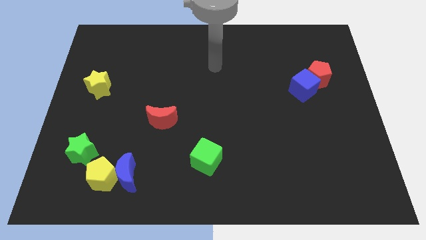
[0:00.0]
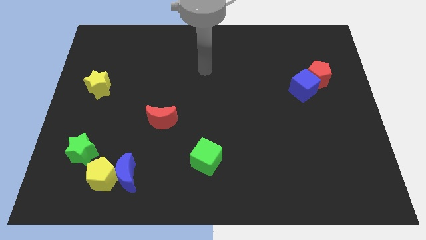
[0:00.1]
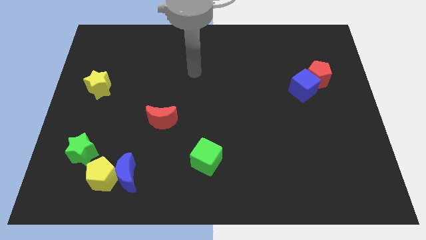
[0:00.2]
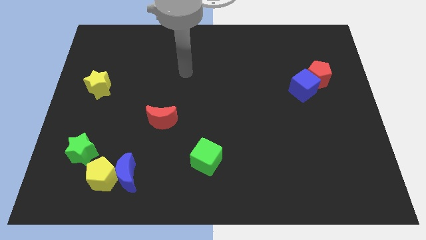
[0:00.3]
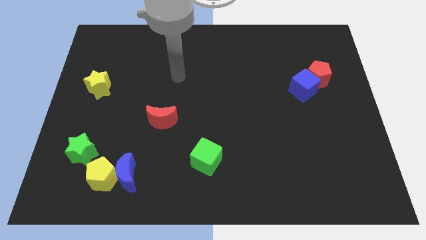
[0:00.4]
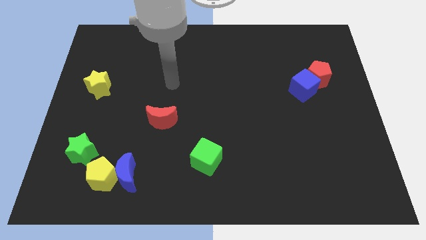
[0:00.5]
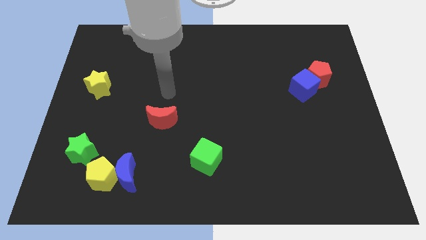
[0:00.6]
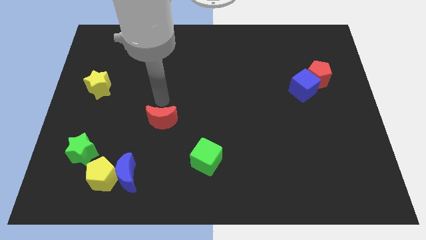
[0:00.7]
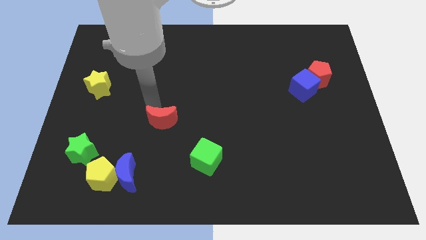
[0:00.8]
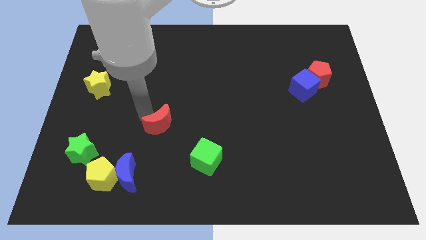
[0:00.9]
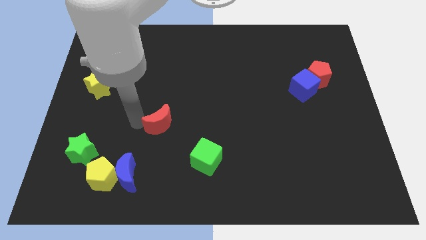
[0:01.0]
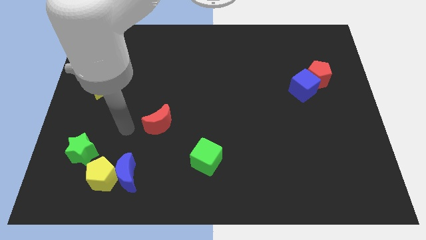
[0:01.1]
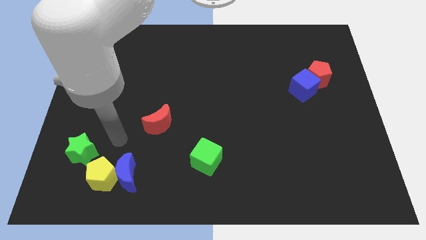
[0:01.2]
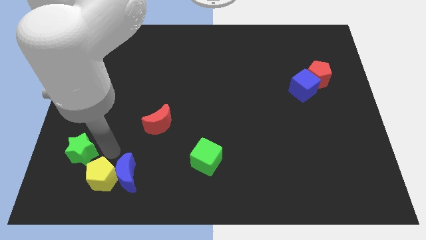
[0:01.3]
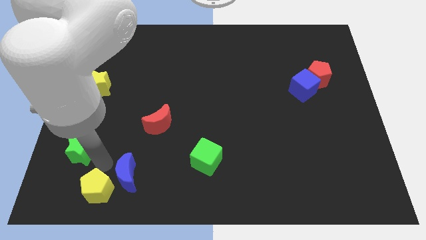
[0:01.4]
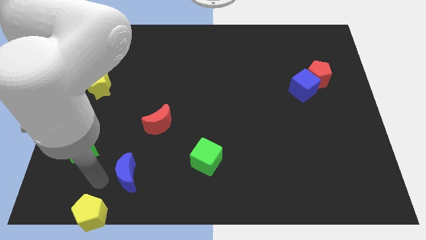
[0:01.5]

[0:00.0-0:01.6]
pull the blue moon apart from the yellow pentagon

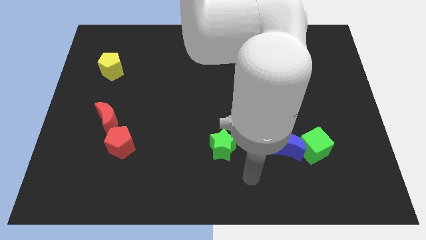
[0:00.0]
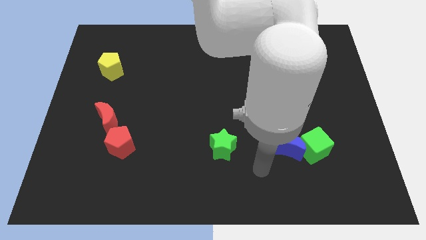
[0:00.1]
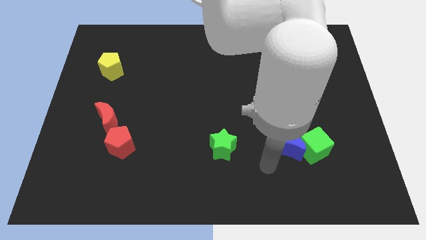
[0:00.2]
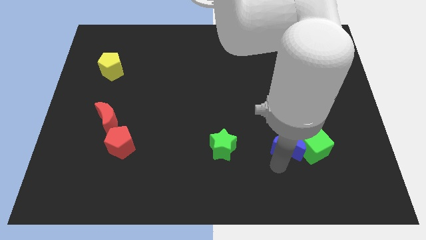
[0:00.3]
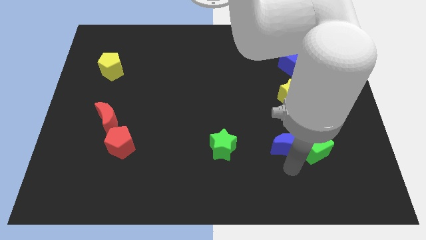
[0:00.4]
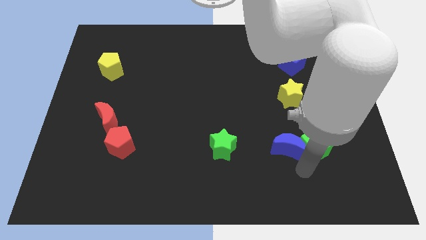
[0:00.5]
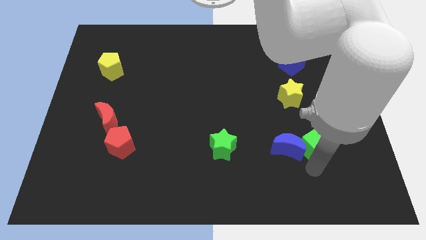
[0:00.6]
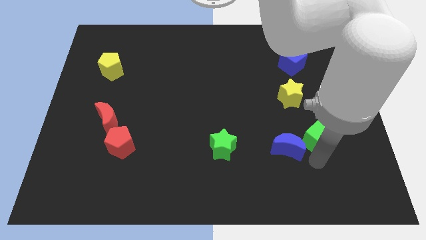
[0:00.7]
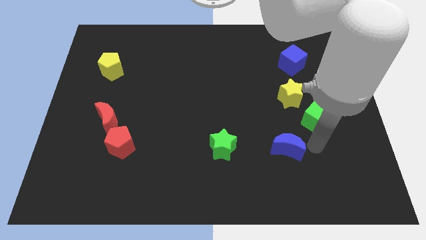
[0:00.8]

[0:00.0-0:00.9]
separate the blue moon from the green cube

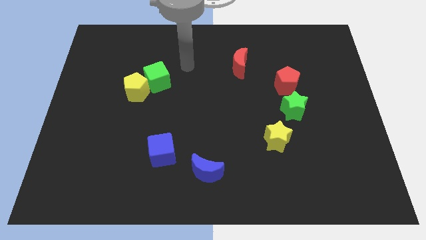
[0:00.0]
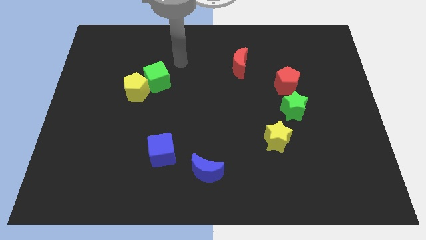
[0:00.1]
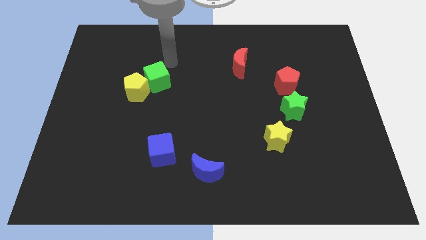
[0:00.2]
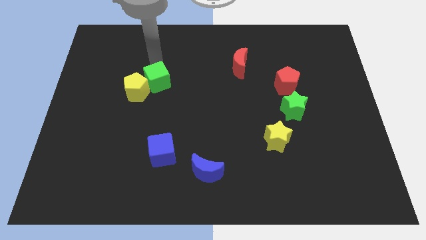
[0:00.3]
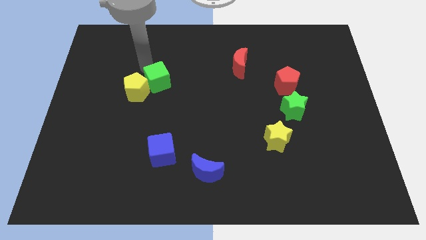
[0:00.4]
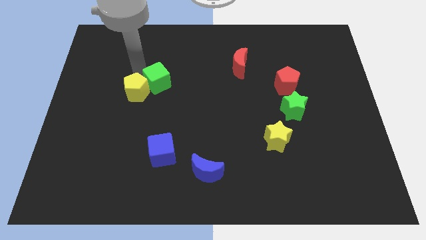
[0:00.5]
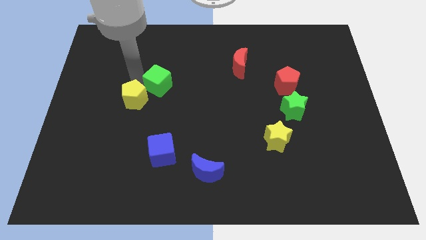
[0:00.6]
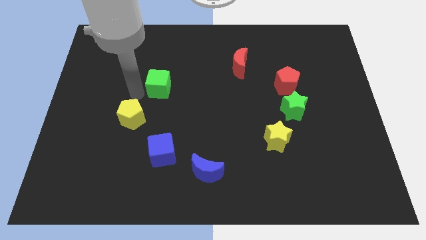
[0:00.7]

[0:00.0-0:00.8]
move the green cube away from the yellow pentagon

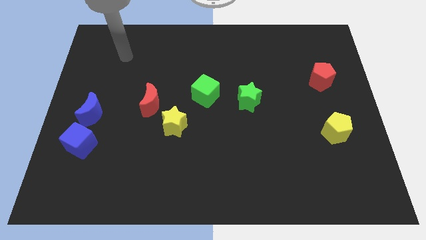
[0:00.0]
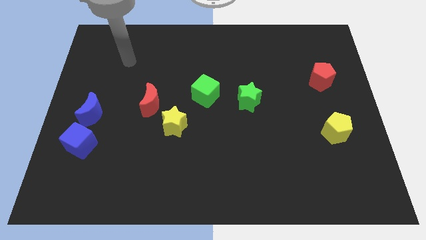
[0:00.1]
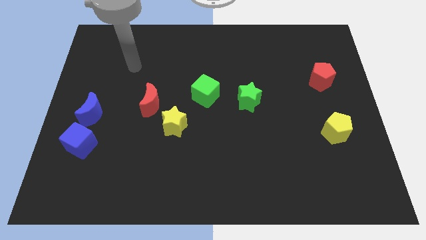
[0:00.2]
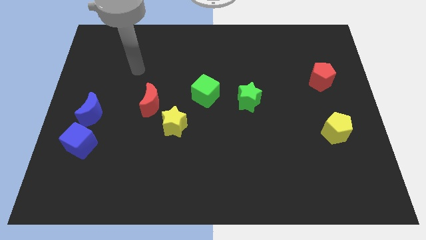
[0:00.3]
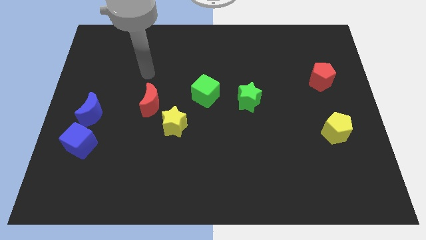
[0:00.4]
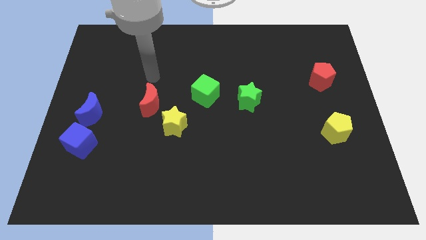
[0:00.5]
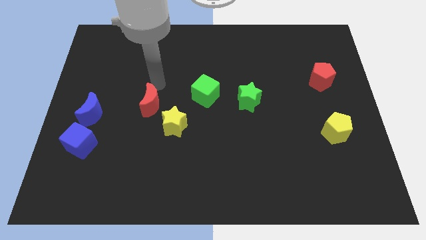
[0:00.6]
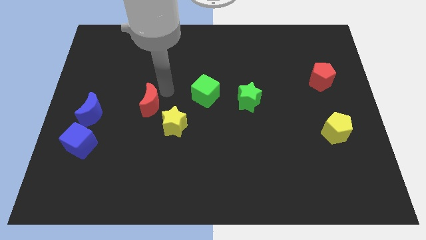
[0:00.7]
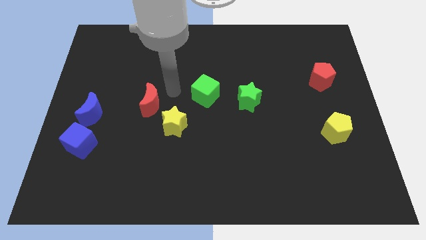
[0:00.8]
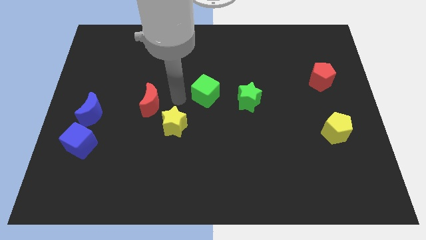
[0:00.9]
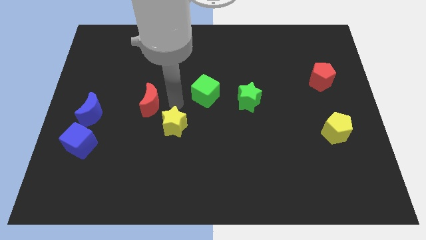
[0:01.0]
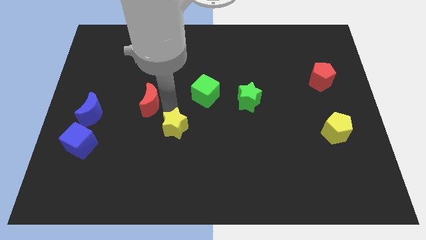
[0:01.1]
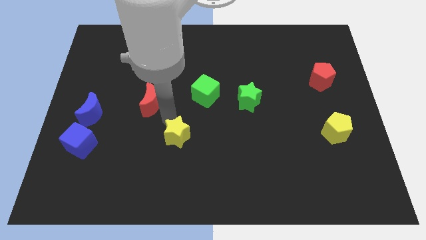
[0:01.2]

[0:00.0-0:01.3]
pull the red moon apart from the yellow star

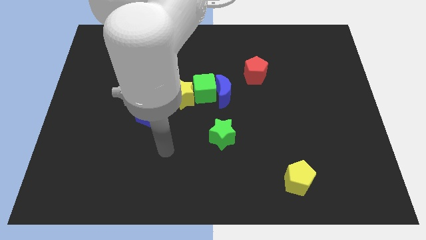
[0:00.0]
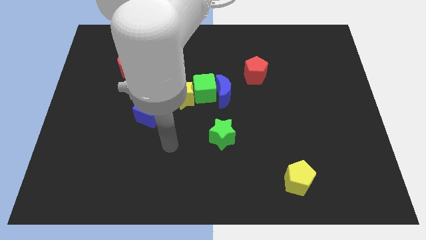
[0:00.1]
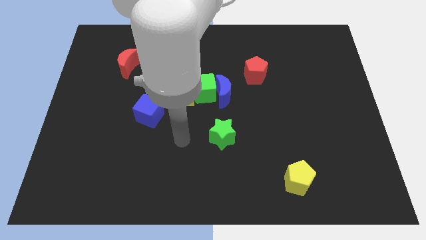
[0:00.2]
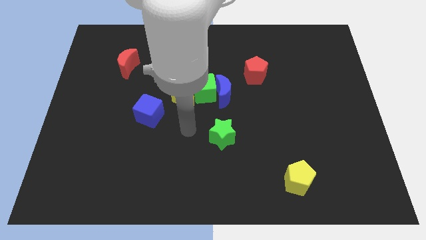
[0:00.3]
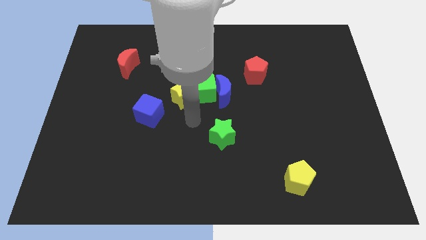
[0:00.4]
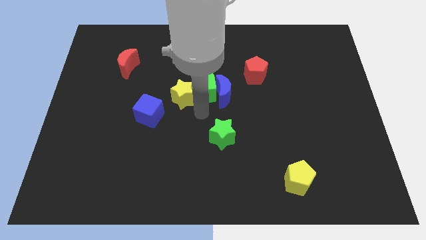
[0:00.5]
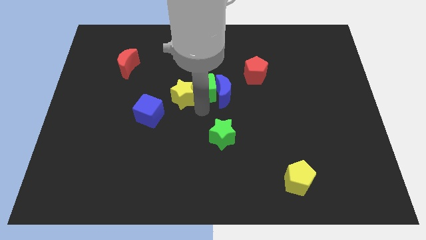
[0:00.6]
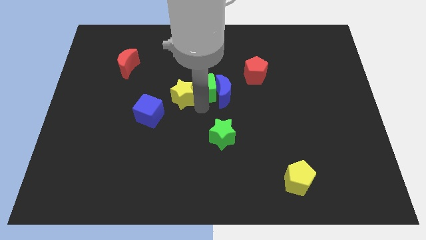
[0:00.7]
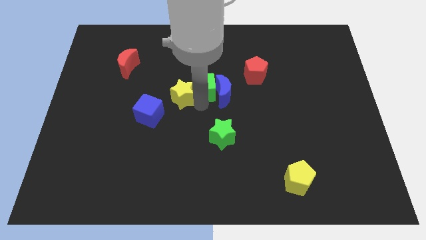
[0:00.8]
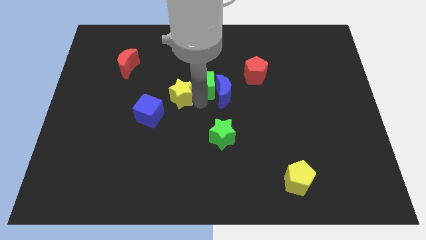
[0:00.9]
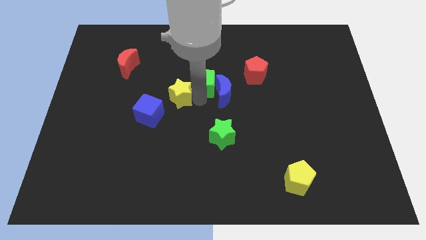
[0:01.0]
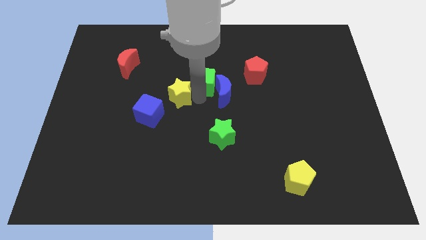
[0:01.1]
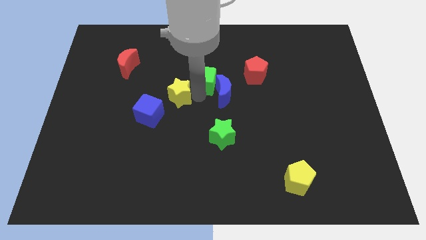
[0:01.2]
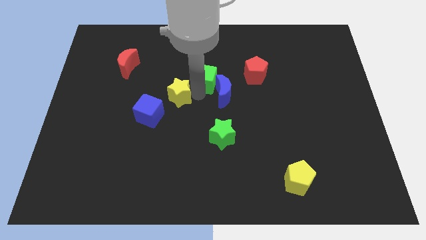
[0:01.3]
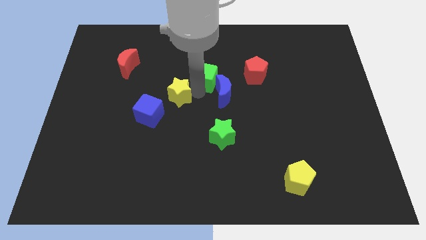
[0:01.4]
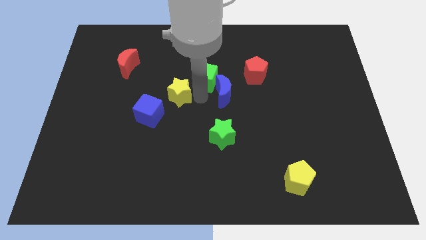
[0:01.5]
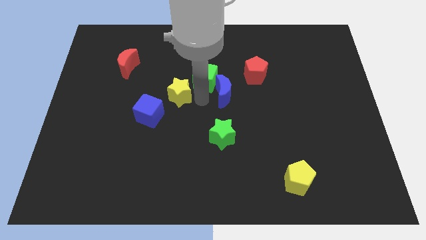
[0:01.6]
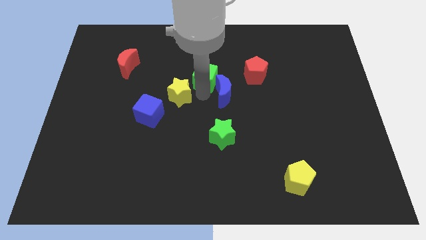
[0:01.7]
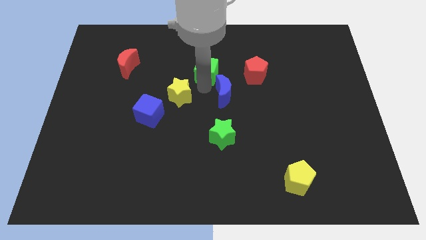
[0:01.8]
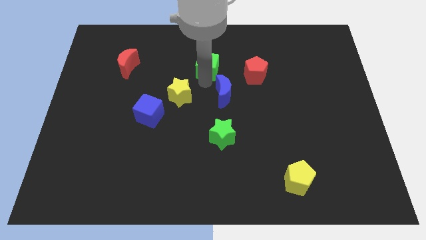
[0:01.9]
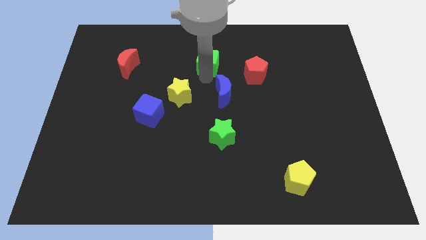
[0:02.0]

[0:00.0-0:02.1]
move the green cube away from the blue moon and yellow star

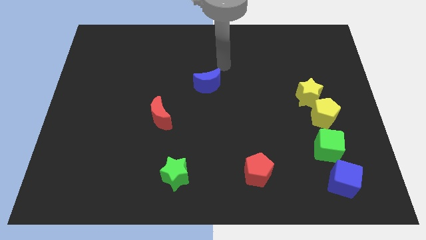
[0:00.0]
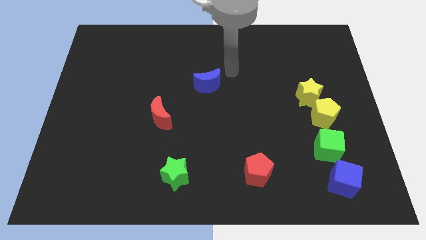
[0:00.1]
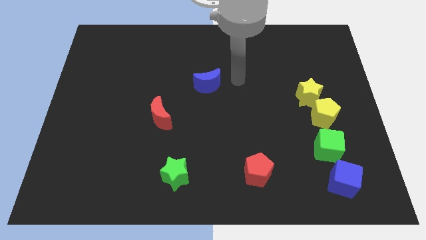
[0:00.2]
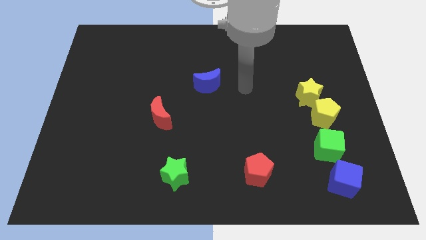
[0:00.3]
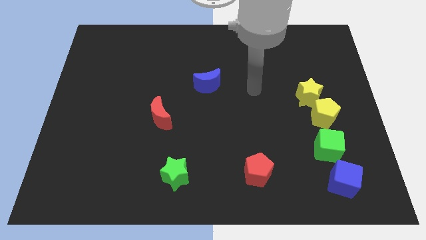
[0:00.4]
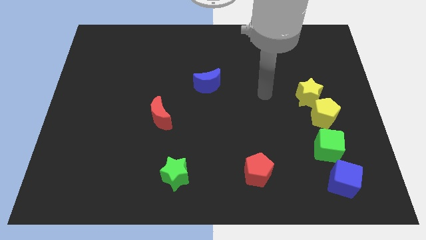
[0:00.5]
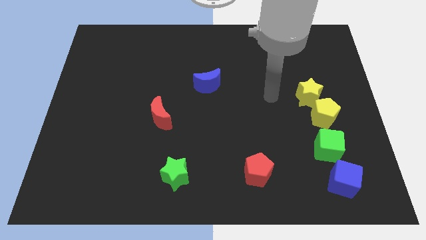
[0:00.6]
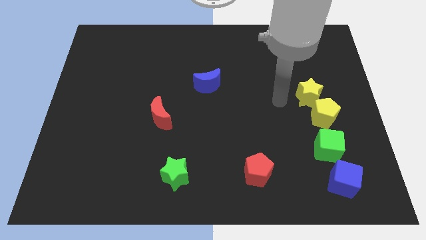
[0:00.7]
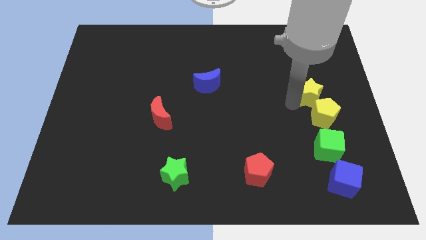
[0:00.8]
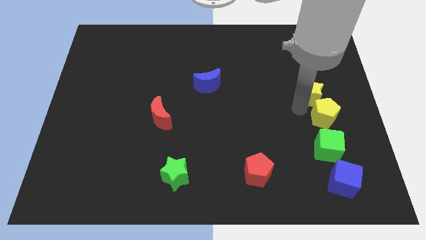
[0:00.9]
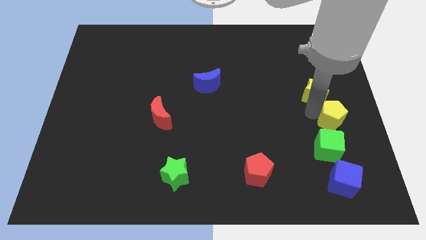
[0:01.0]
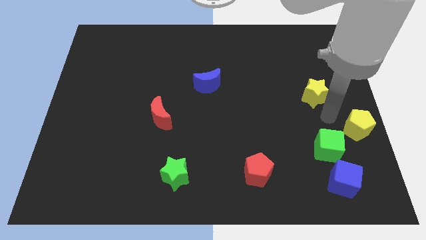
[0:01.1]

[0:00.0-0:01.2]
separate the yellow star from the yellow pentagon

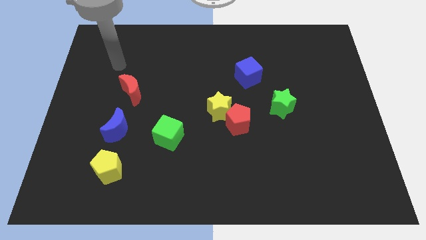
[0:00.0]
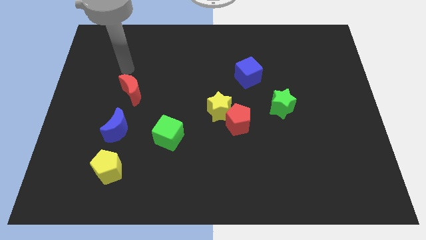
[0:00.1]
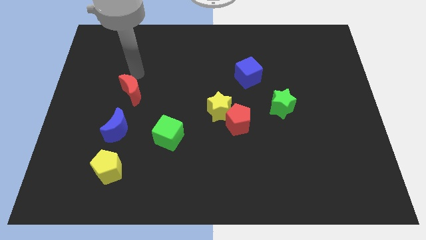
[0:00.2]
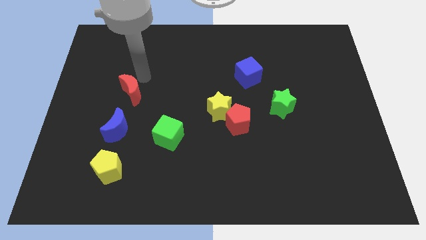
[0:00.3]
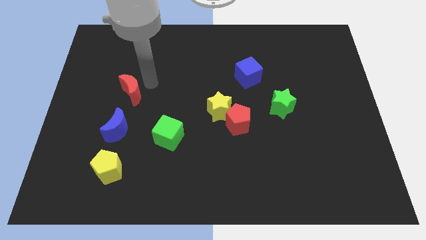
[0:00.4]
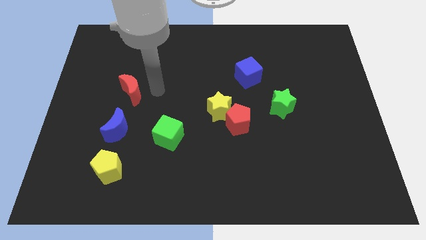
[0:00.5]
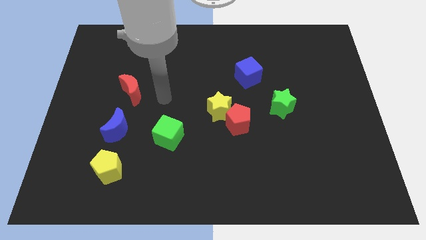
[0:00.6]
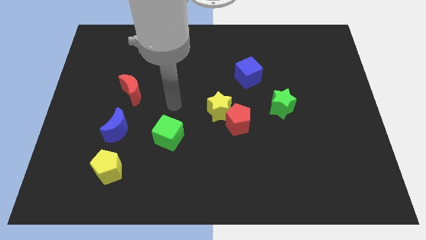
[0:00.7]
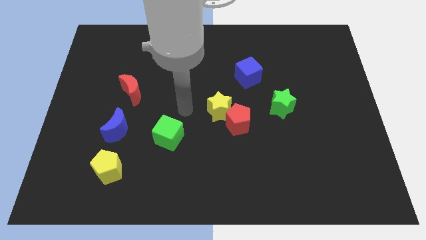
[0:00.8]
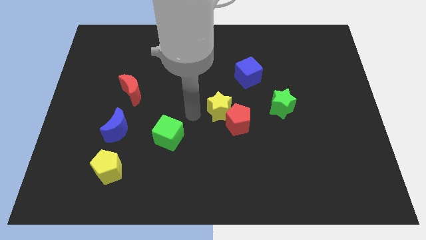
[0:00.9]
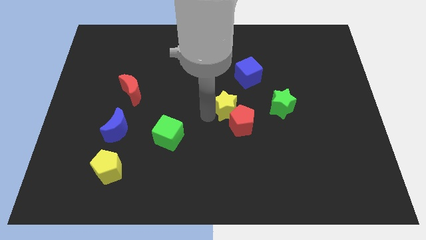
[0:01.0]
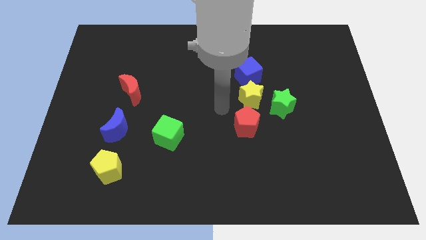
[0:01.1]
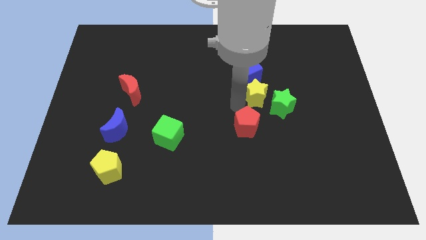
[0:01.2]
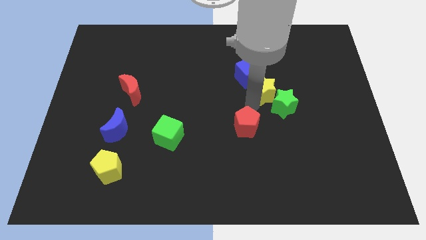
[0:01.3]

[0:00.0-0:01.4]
pull the red pentagon apart from the yellow star
